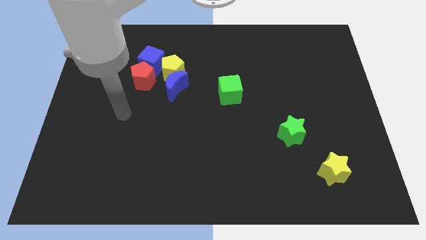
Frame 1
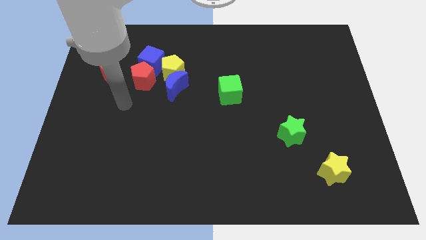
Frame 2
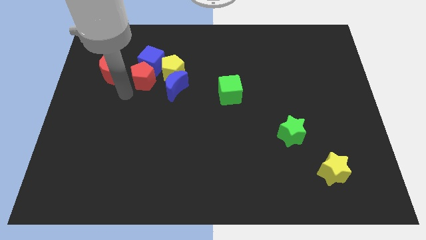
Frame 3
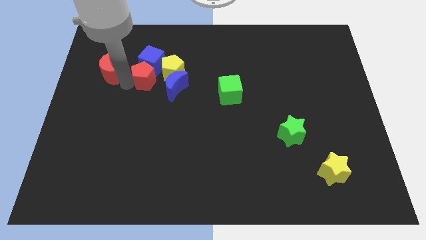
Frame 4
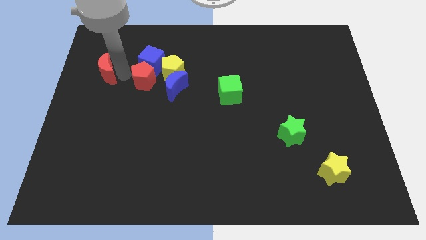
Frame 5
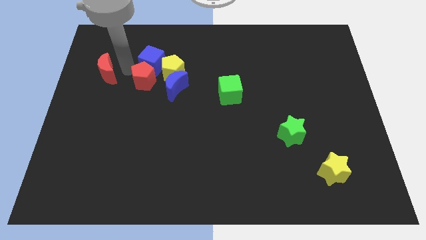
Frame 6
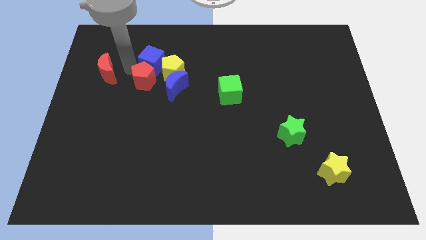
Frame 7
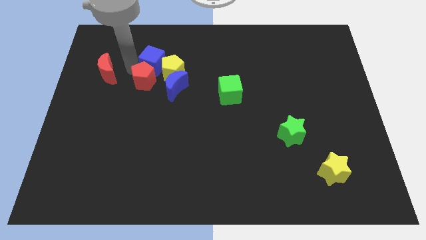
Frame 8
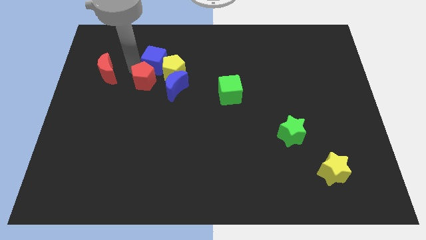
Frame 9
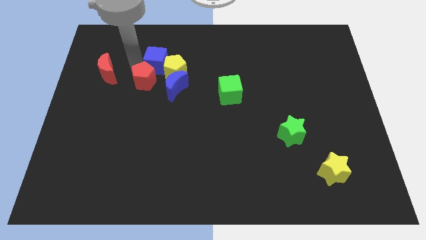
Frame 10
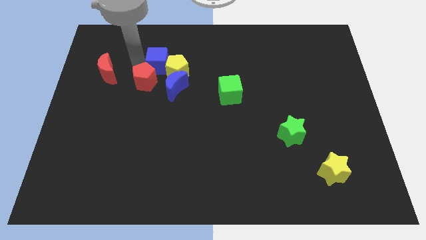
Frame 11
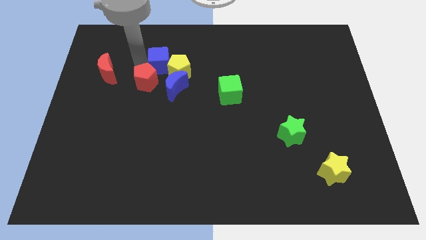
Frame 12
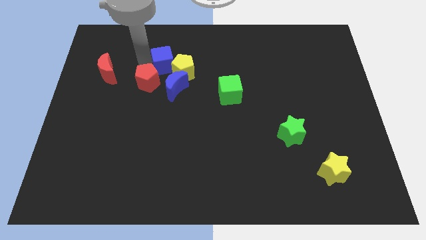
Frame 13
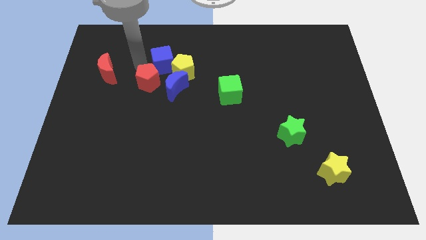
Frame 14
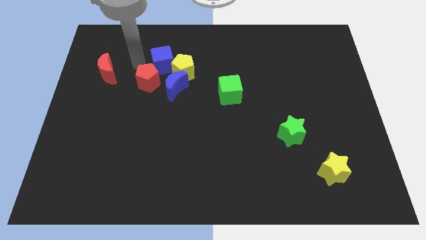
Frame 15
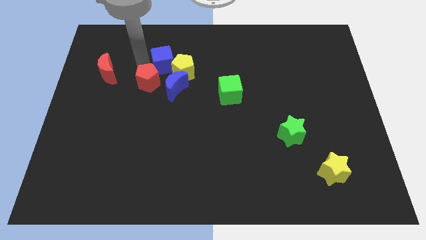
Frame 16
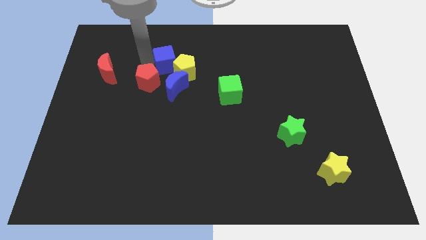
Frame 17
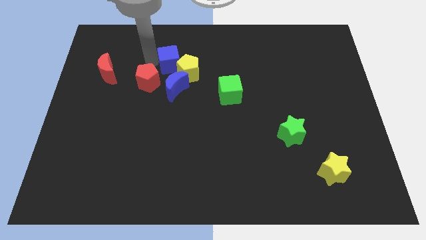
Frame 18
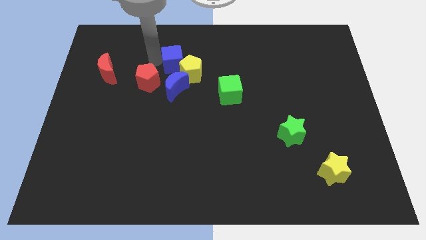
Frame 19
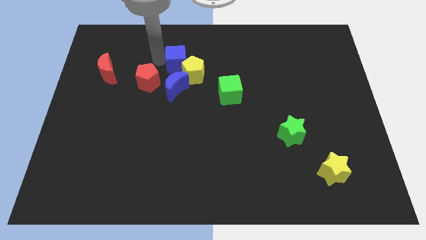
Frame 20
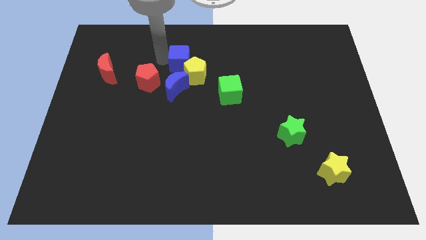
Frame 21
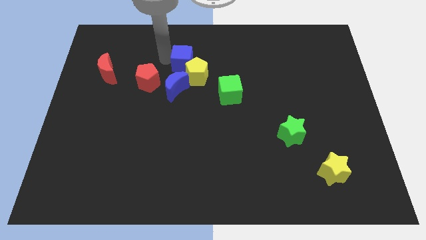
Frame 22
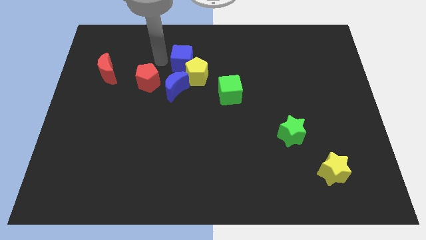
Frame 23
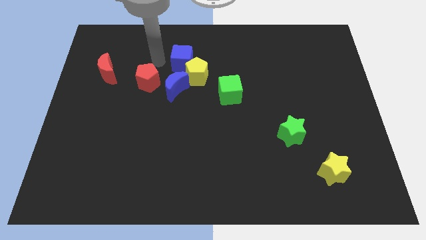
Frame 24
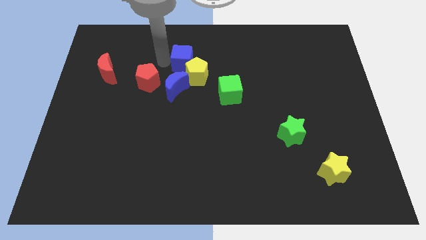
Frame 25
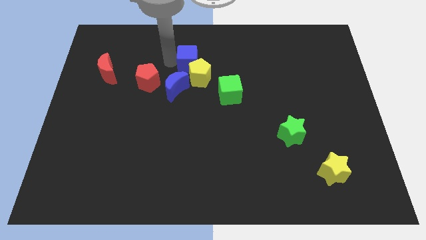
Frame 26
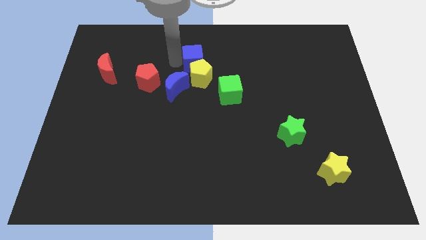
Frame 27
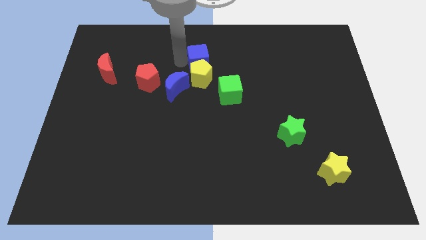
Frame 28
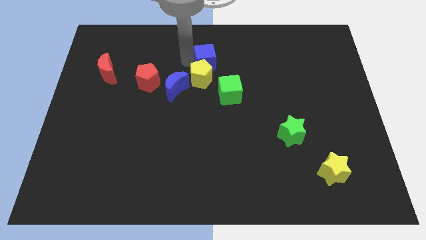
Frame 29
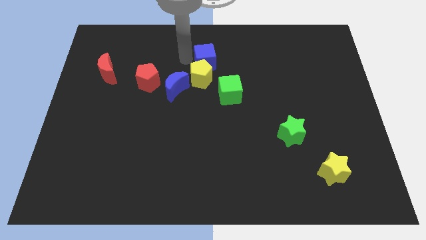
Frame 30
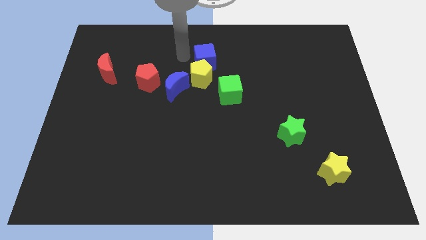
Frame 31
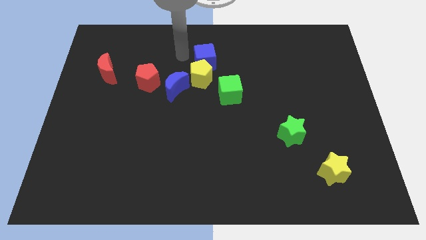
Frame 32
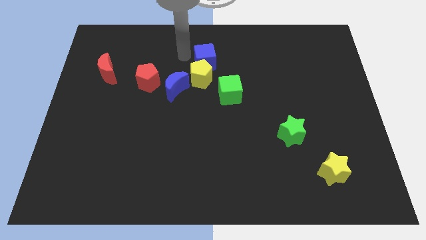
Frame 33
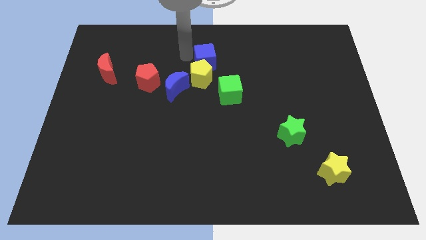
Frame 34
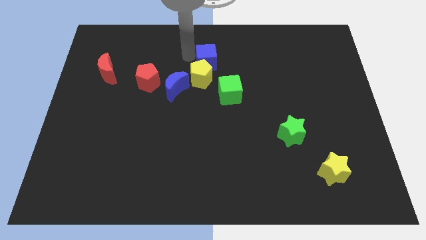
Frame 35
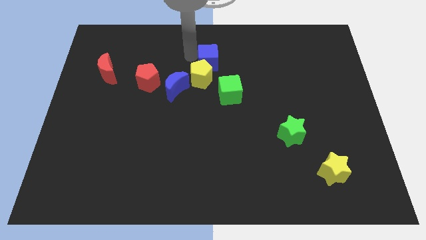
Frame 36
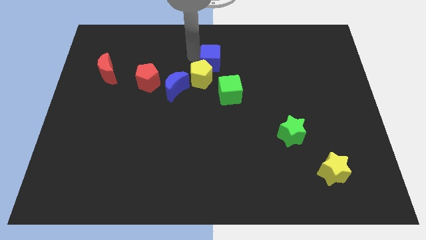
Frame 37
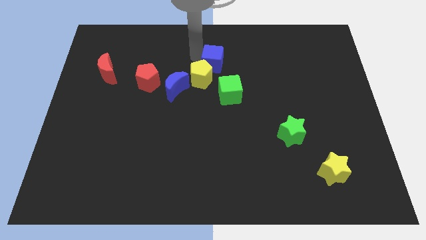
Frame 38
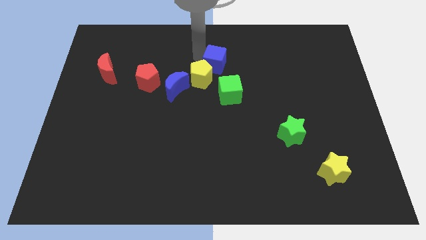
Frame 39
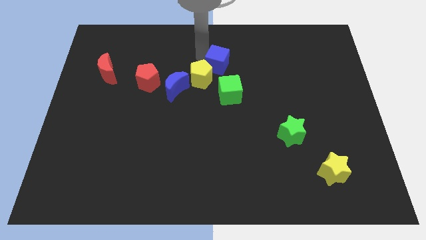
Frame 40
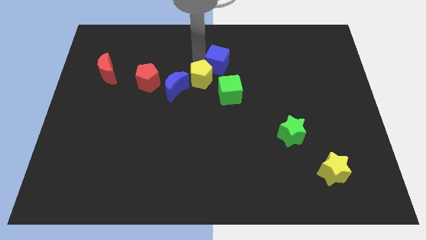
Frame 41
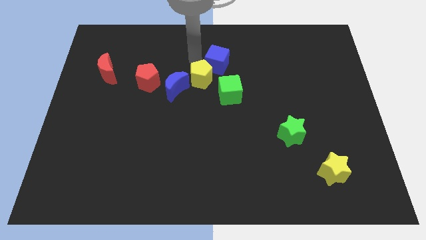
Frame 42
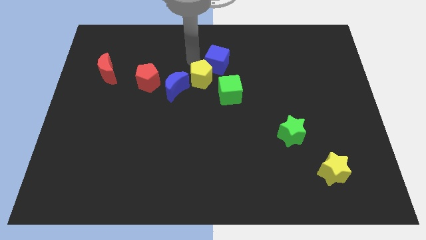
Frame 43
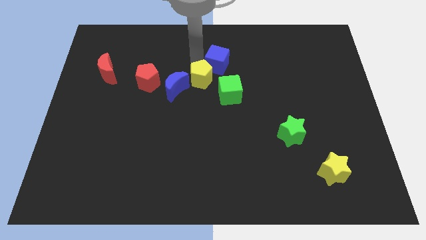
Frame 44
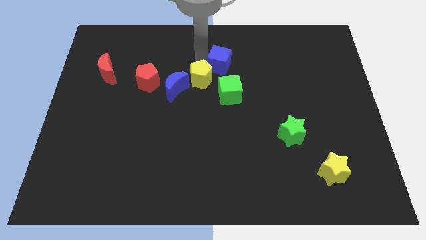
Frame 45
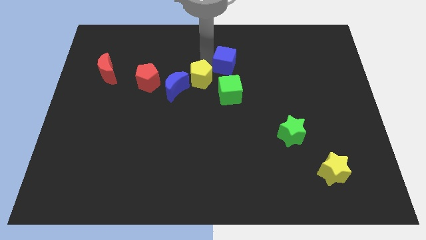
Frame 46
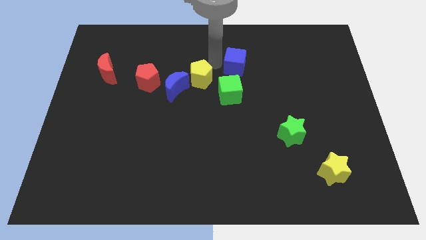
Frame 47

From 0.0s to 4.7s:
push the blue cube to the right

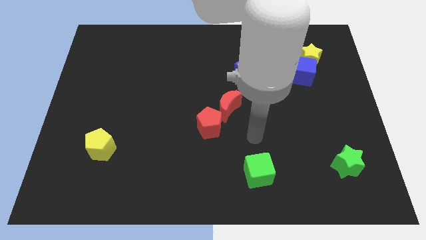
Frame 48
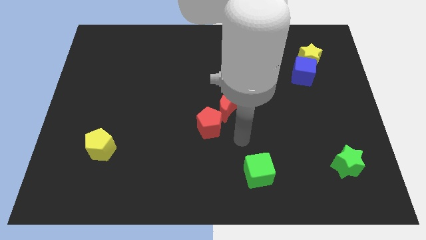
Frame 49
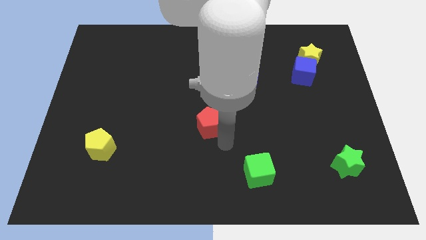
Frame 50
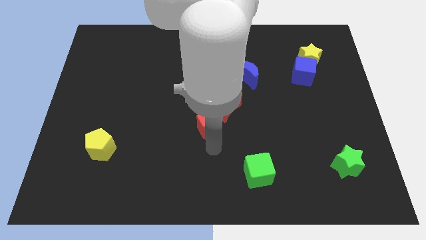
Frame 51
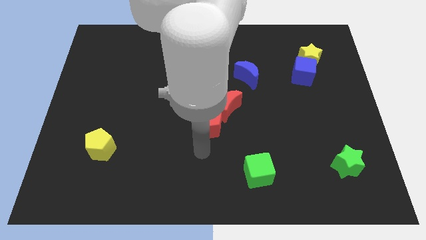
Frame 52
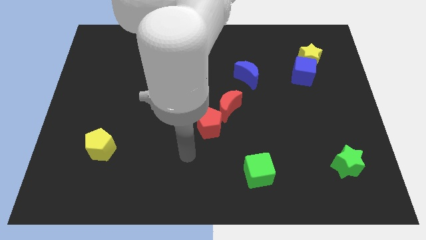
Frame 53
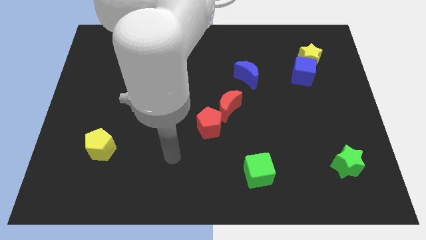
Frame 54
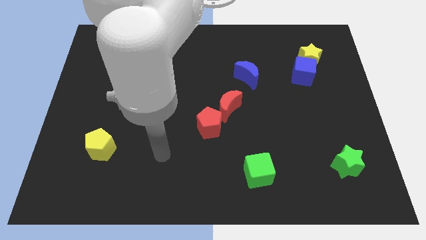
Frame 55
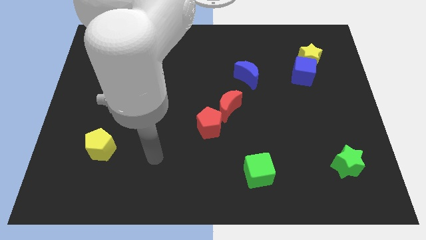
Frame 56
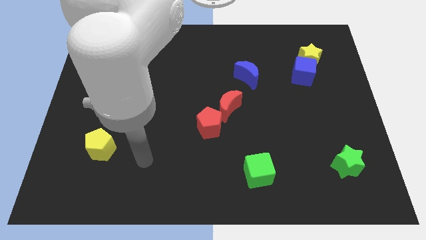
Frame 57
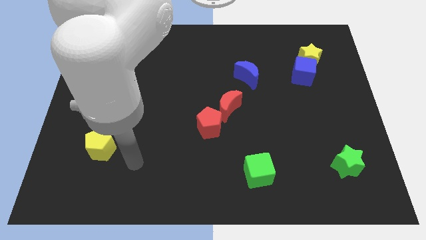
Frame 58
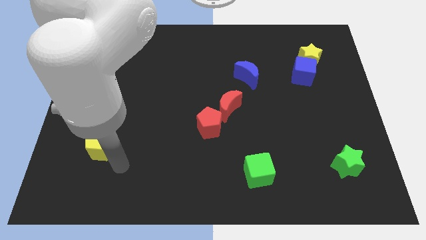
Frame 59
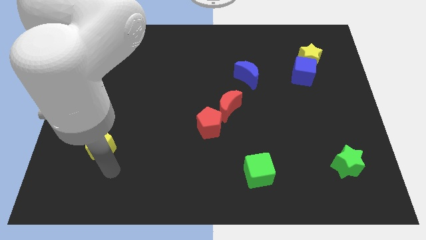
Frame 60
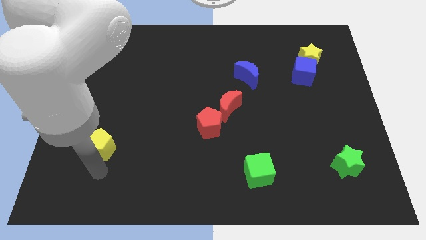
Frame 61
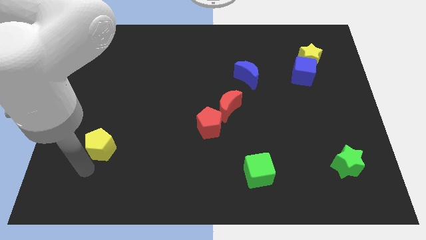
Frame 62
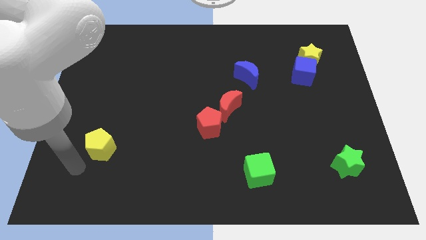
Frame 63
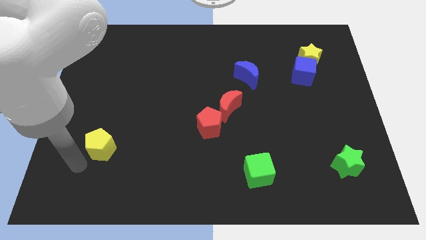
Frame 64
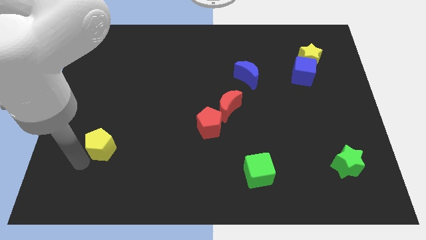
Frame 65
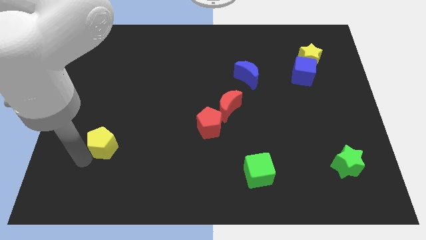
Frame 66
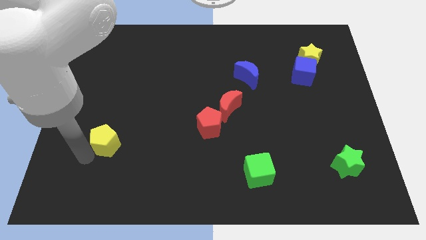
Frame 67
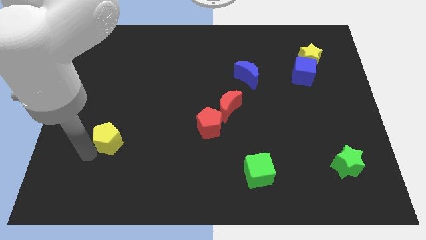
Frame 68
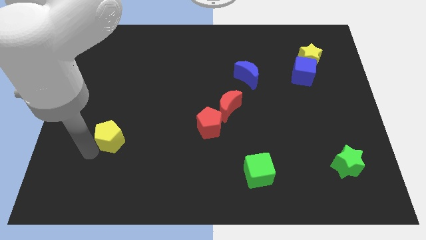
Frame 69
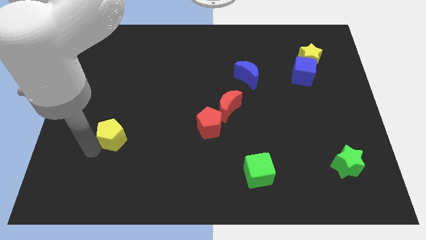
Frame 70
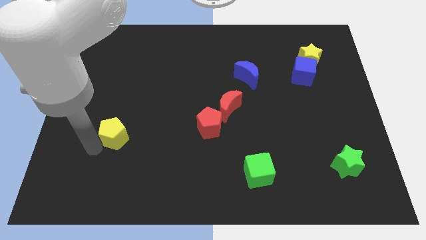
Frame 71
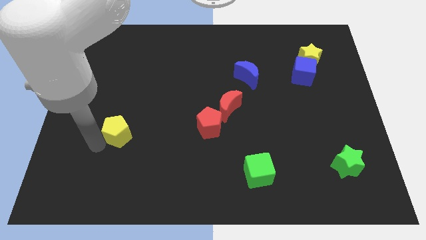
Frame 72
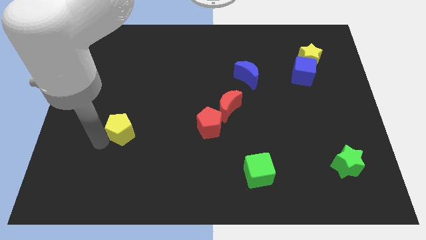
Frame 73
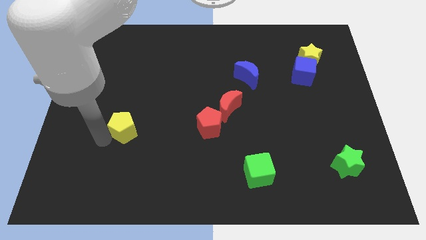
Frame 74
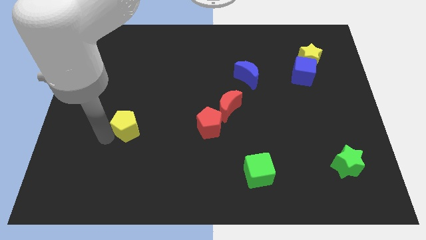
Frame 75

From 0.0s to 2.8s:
slightly move the yellow pentagon upwards and right

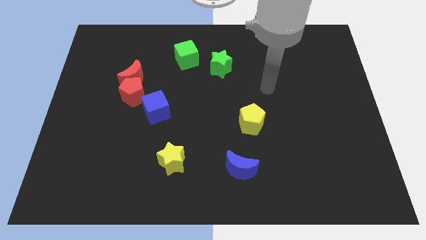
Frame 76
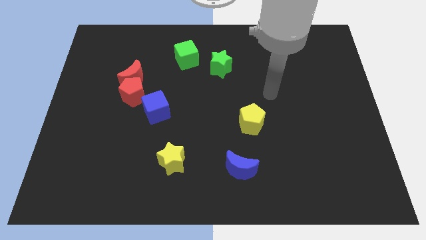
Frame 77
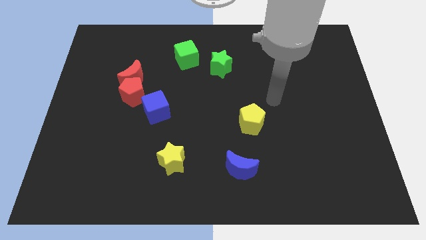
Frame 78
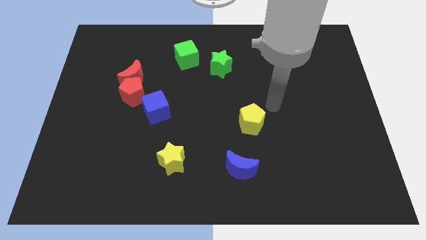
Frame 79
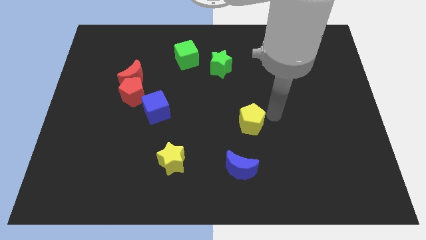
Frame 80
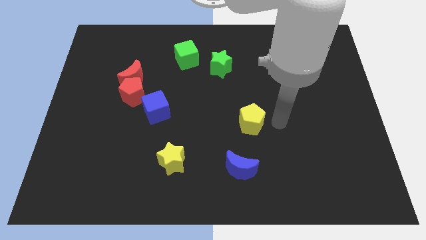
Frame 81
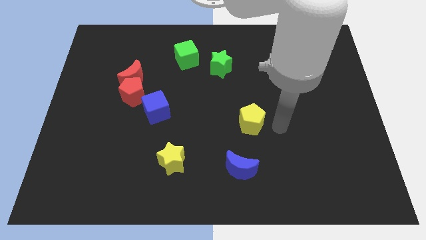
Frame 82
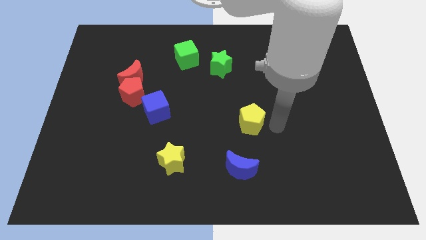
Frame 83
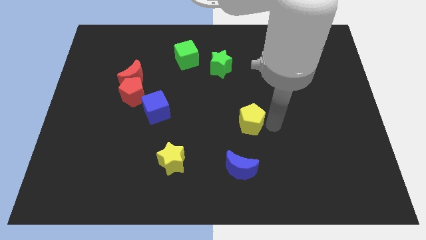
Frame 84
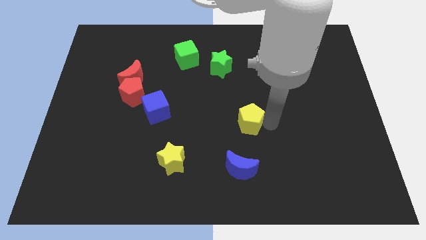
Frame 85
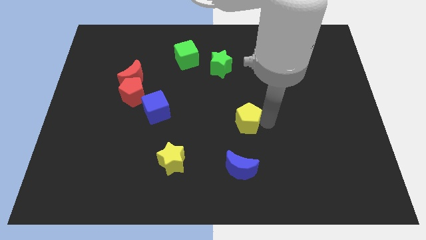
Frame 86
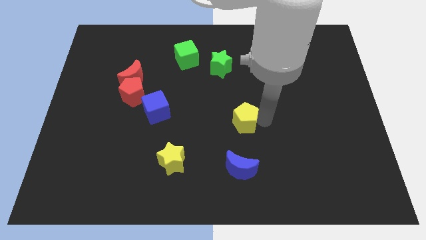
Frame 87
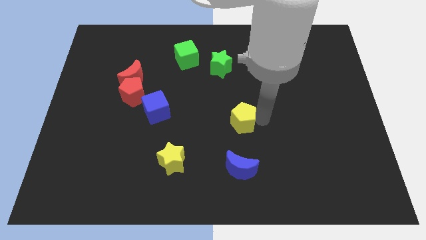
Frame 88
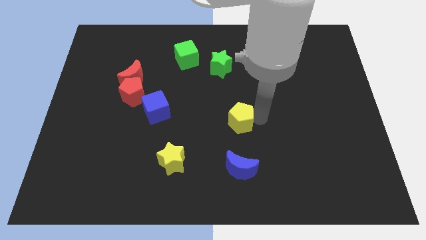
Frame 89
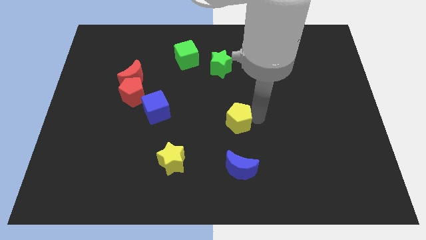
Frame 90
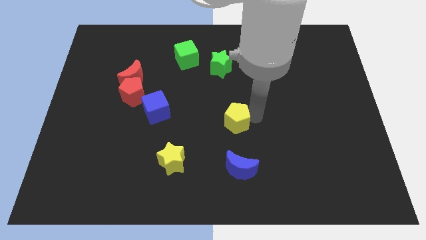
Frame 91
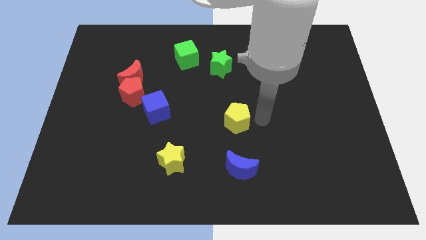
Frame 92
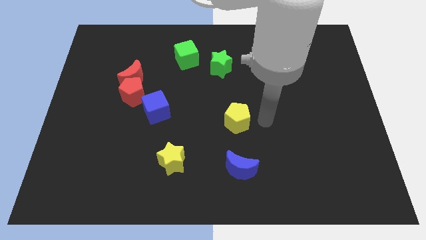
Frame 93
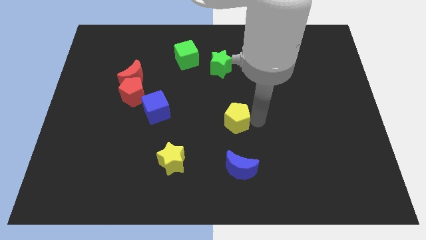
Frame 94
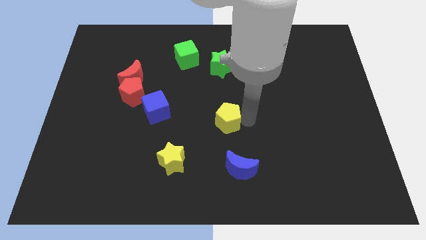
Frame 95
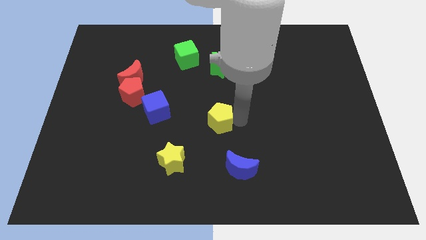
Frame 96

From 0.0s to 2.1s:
slide the yellow pentagon to the left somewhat
